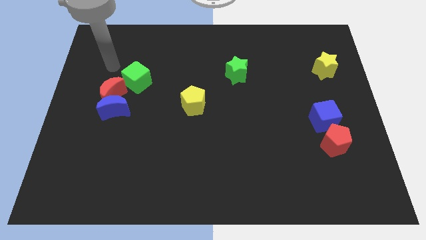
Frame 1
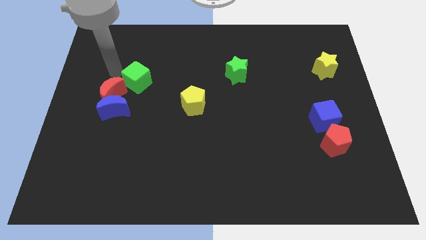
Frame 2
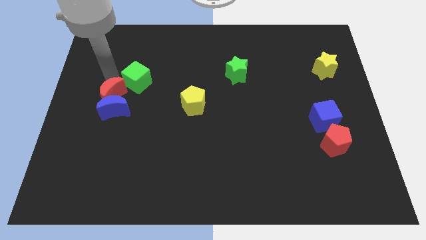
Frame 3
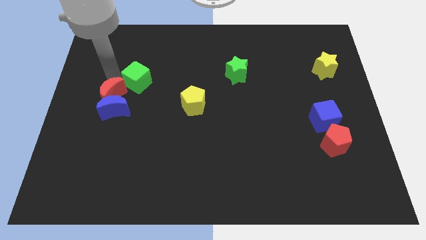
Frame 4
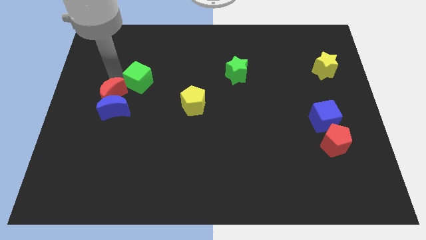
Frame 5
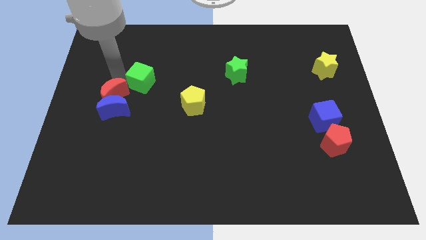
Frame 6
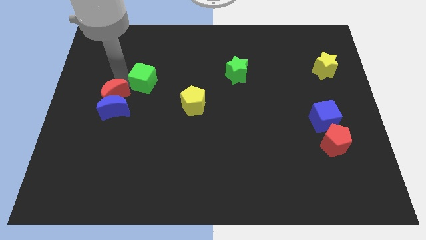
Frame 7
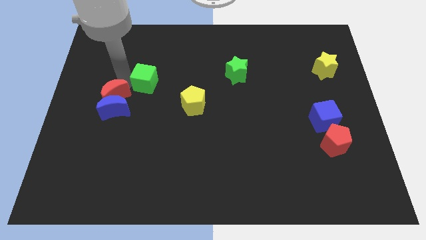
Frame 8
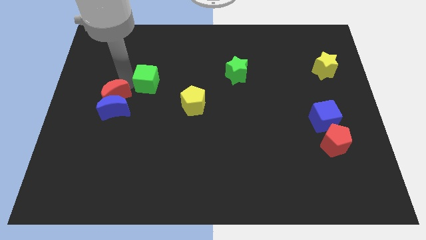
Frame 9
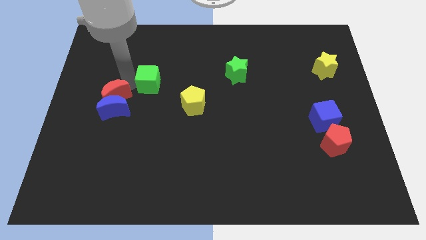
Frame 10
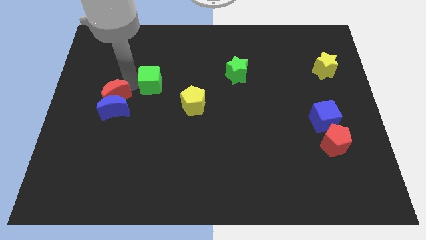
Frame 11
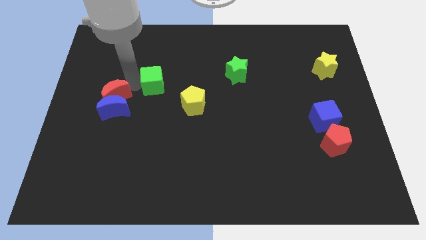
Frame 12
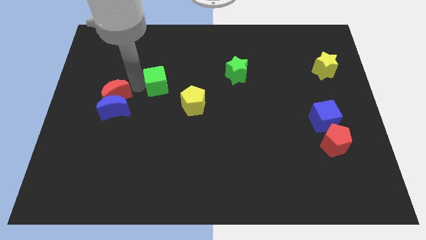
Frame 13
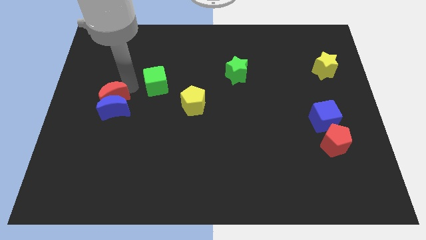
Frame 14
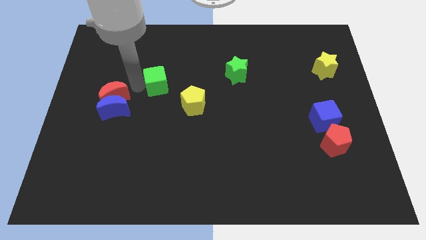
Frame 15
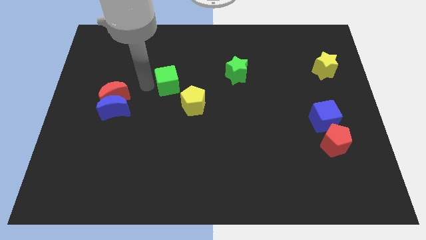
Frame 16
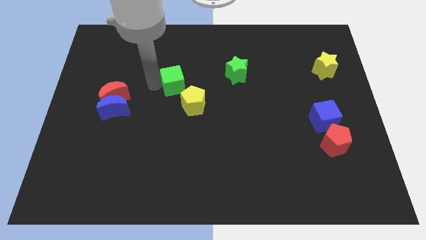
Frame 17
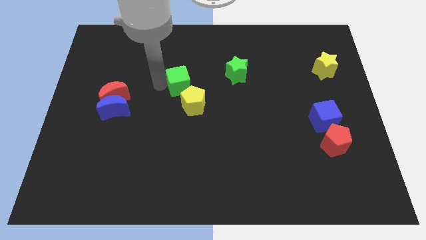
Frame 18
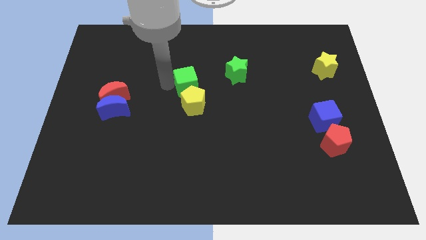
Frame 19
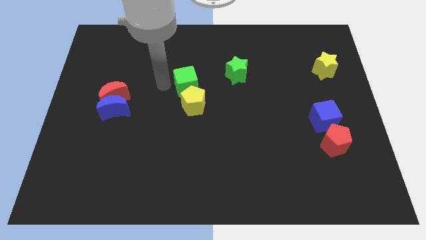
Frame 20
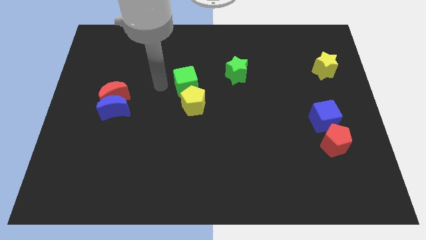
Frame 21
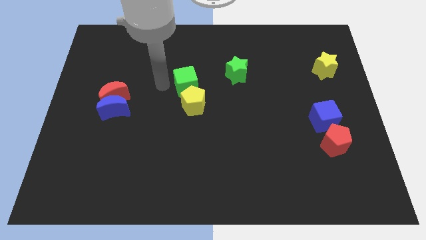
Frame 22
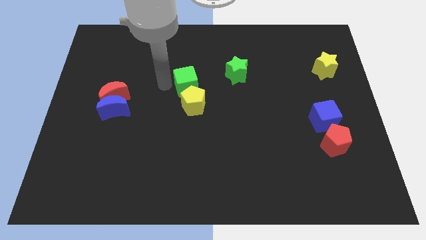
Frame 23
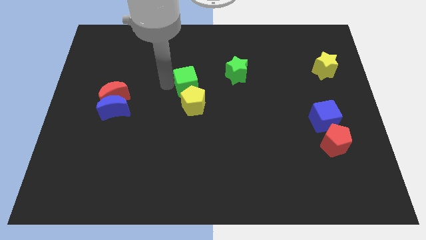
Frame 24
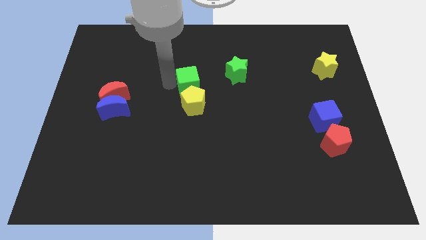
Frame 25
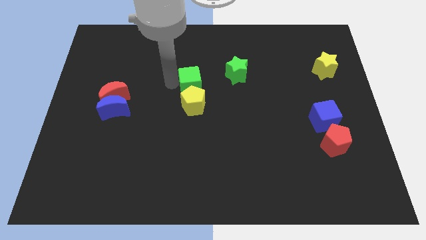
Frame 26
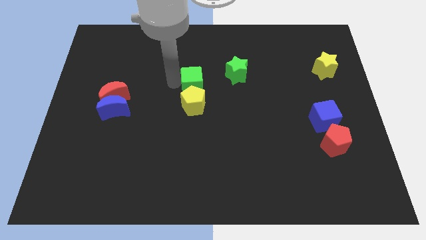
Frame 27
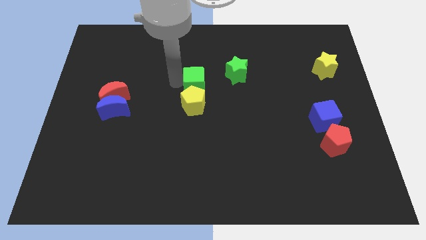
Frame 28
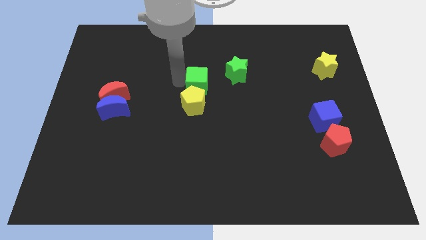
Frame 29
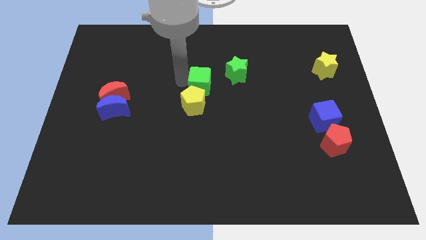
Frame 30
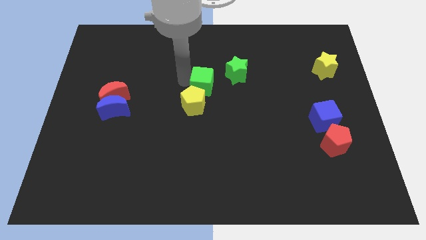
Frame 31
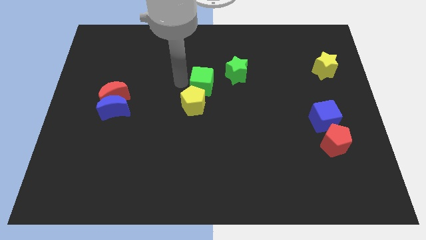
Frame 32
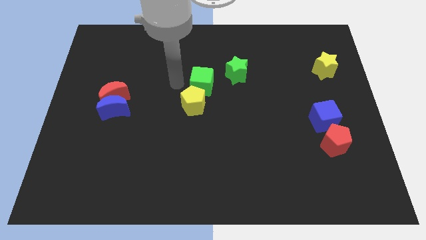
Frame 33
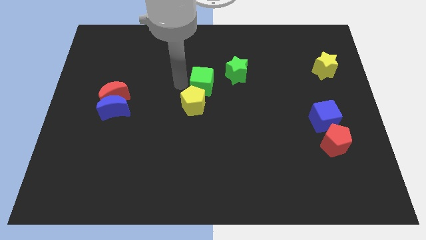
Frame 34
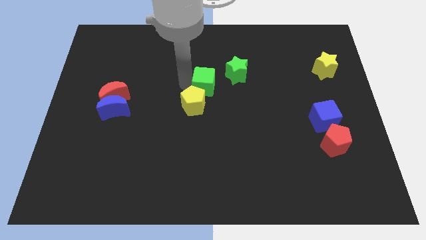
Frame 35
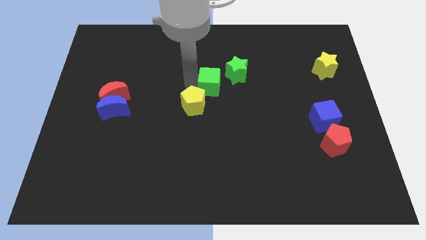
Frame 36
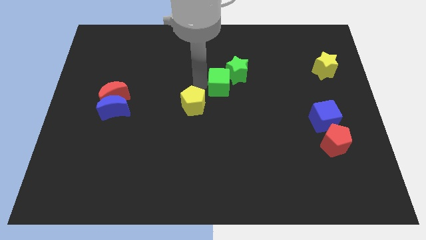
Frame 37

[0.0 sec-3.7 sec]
push the green cube to the right

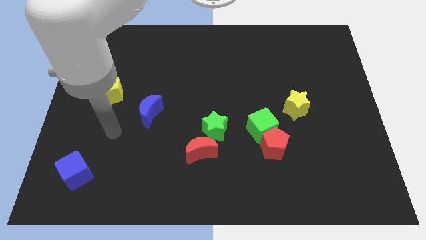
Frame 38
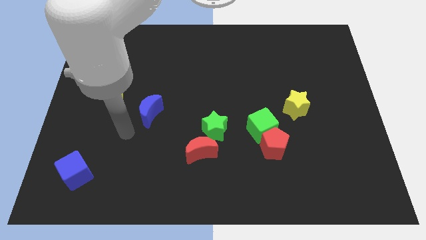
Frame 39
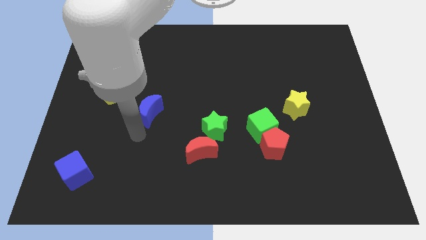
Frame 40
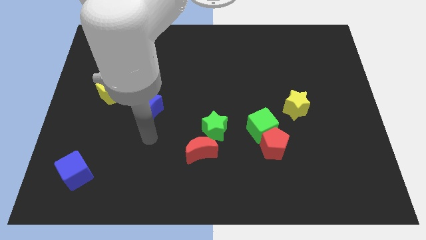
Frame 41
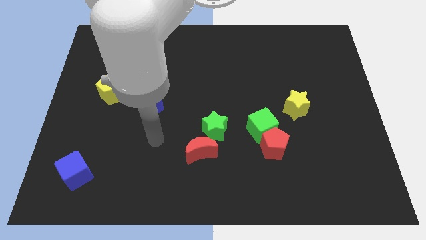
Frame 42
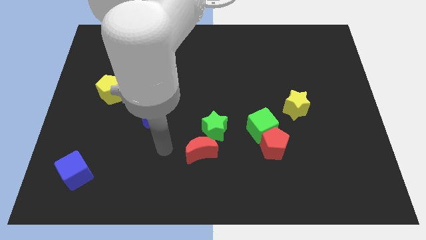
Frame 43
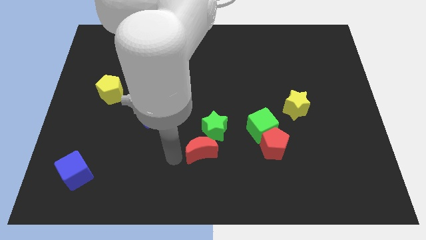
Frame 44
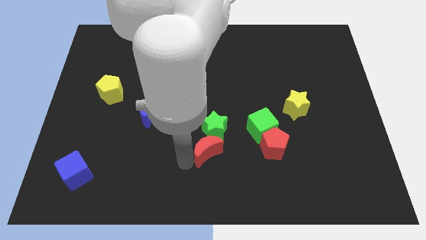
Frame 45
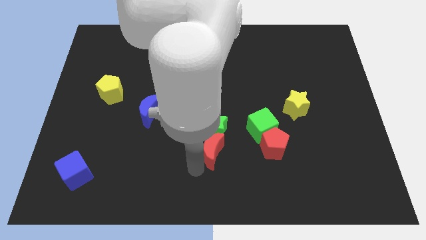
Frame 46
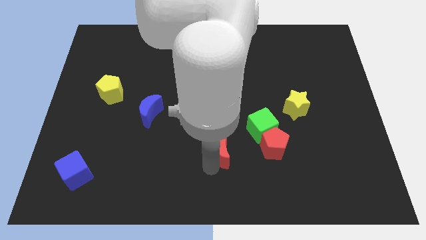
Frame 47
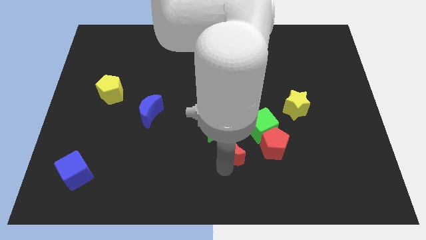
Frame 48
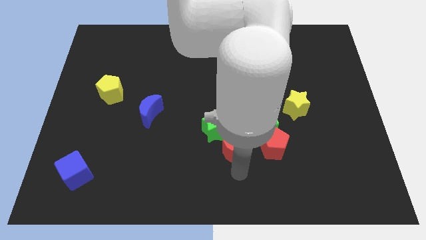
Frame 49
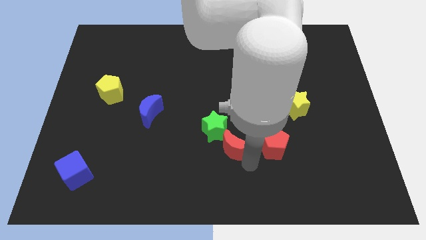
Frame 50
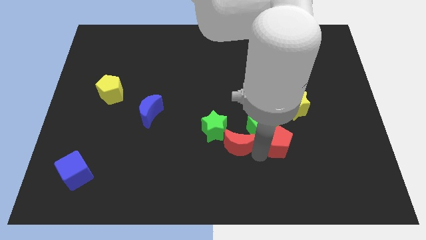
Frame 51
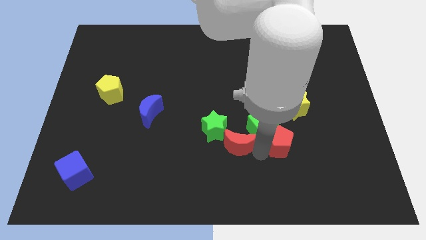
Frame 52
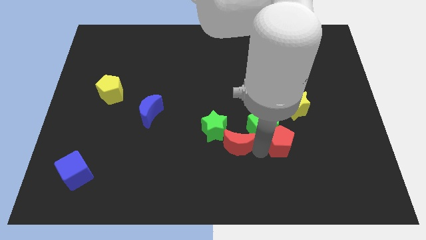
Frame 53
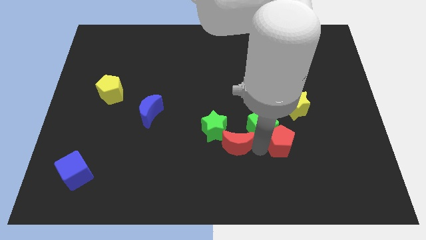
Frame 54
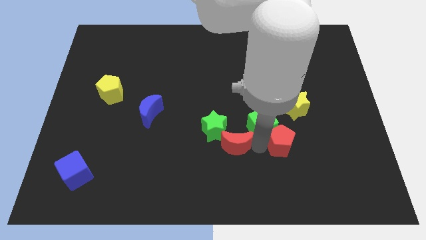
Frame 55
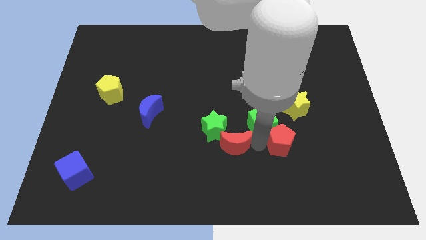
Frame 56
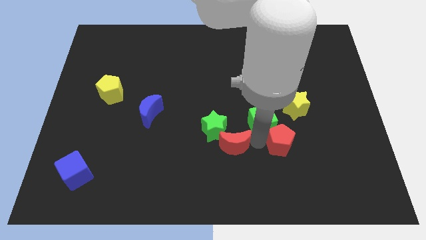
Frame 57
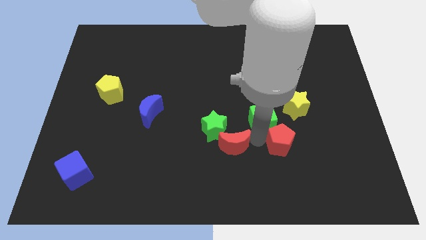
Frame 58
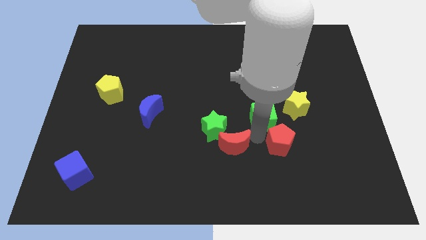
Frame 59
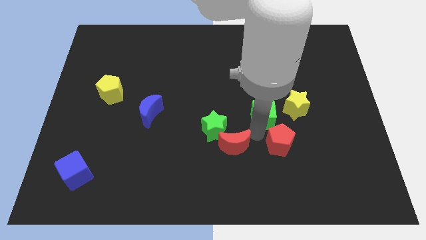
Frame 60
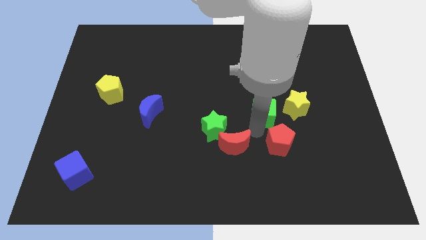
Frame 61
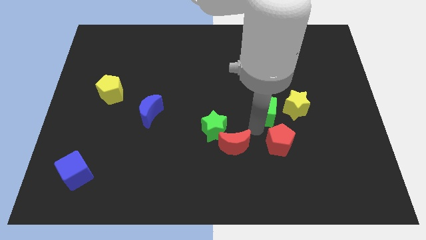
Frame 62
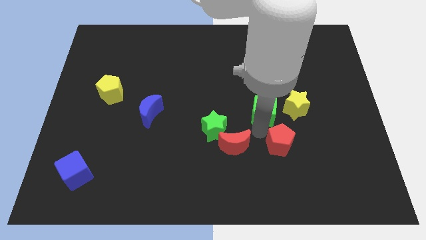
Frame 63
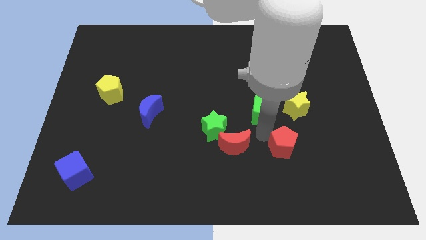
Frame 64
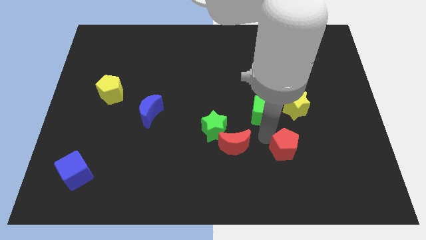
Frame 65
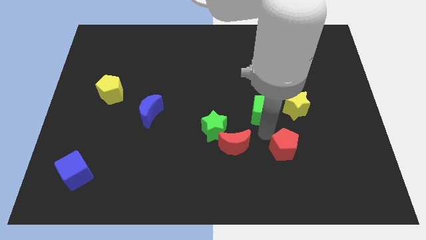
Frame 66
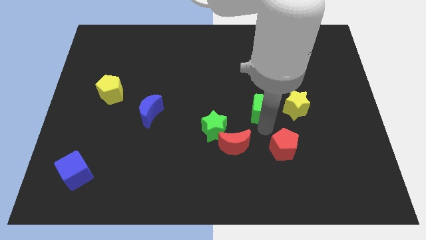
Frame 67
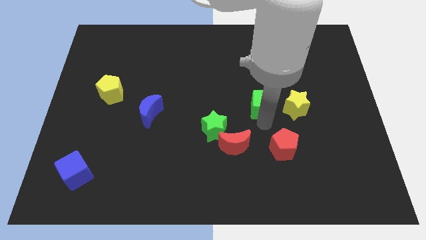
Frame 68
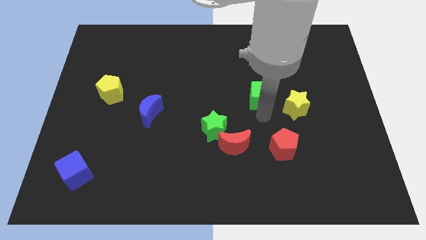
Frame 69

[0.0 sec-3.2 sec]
push the green cube a little bit upwards

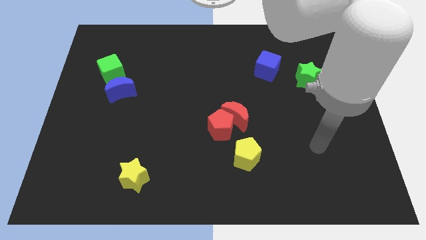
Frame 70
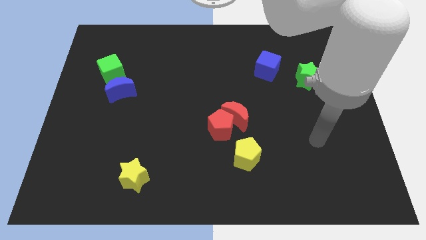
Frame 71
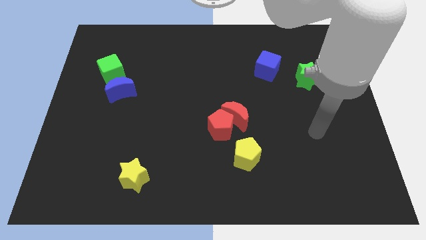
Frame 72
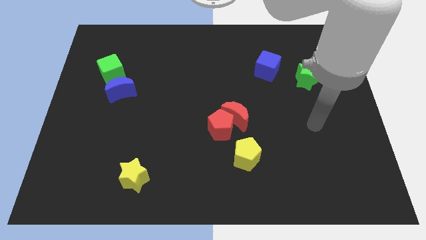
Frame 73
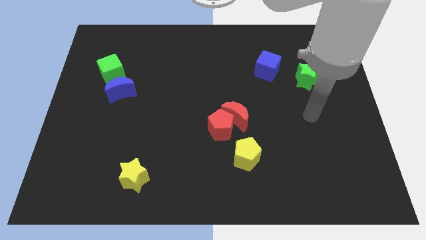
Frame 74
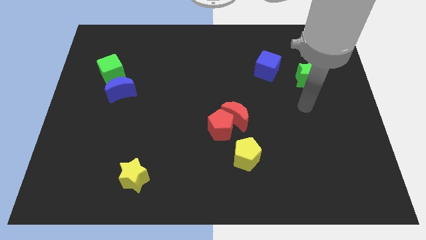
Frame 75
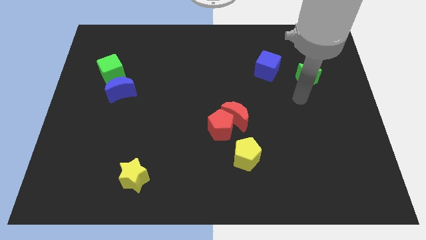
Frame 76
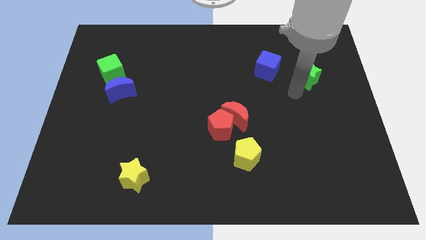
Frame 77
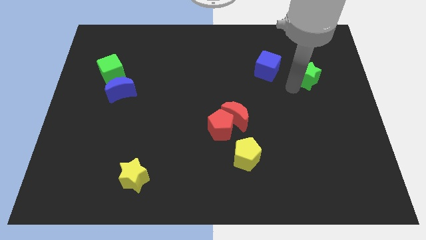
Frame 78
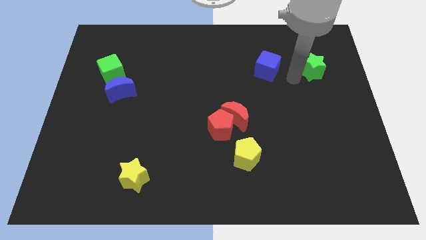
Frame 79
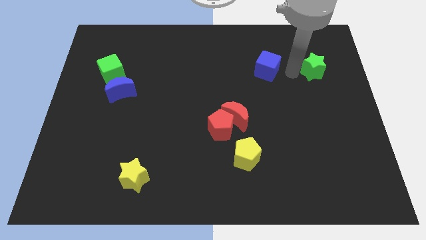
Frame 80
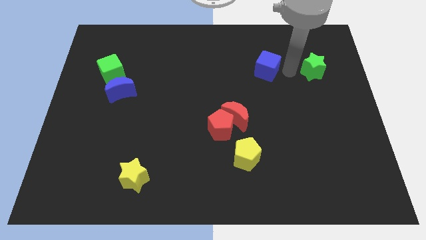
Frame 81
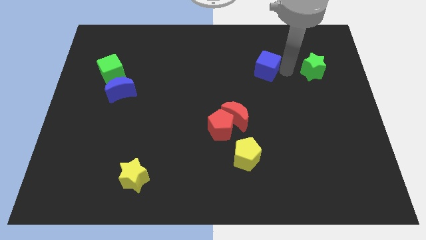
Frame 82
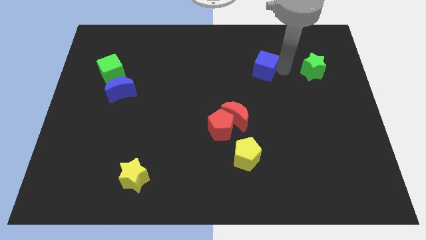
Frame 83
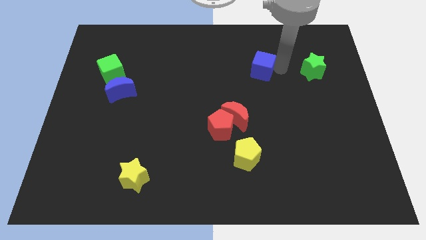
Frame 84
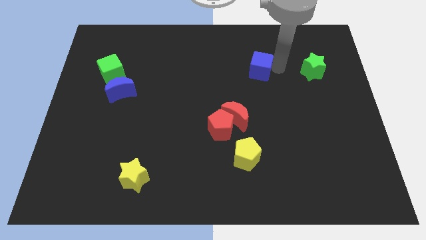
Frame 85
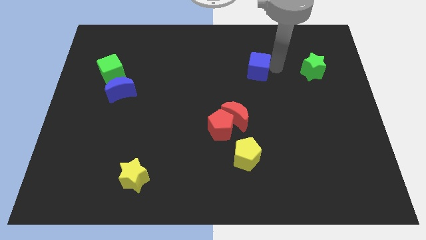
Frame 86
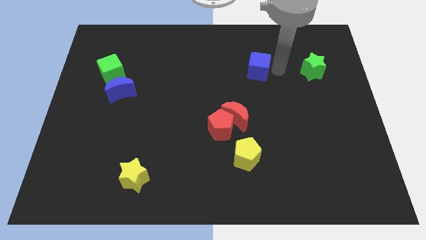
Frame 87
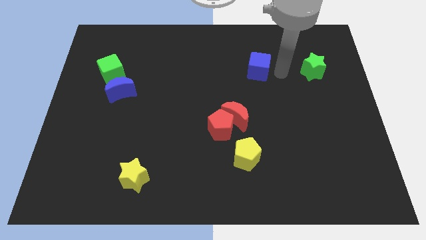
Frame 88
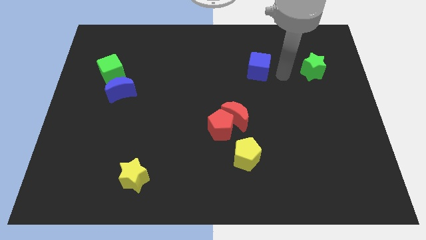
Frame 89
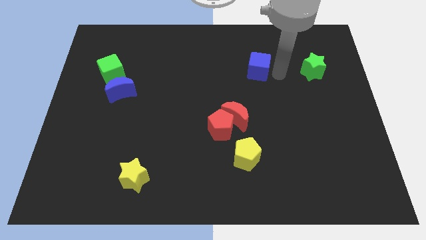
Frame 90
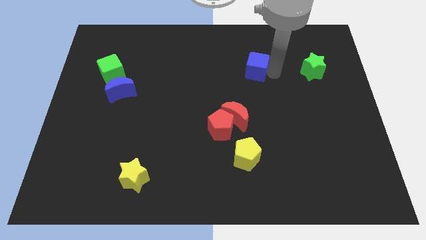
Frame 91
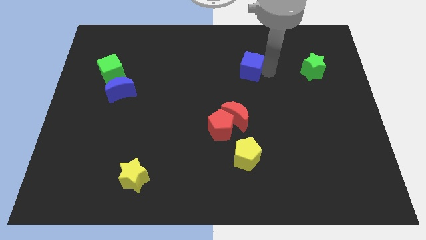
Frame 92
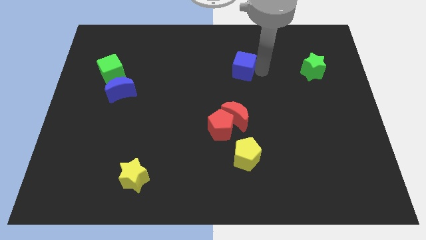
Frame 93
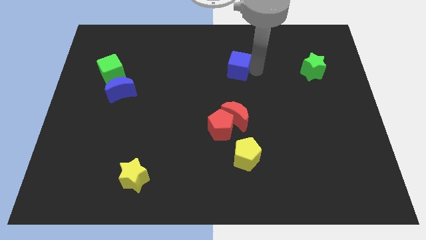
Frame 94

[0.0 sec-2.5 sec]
push the blue cube a little to the left
